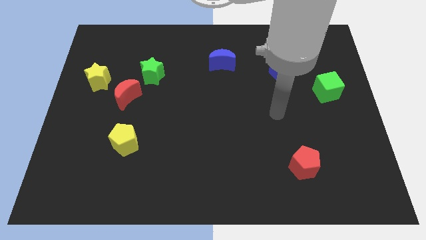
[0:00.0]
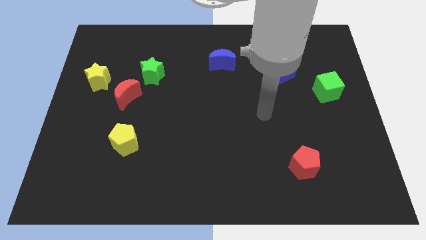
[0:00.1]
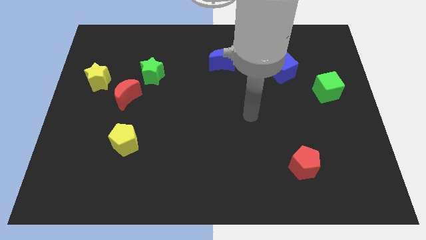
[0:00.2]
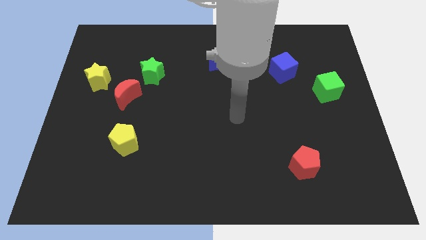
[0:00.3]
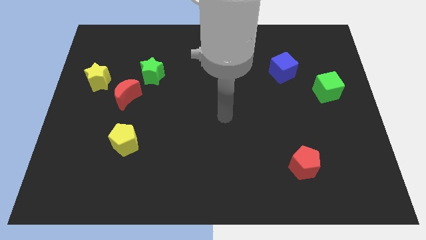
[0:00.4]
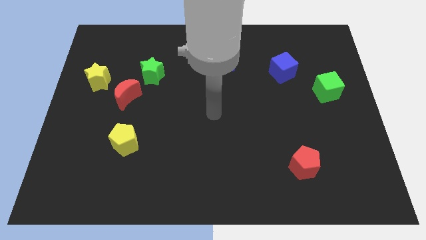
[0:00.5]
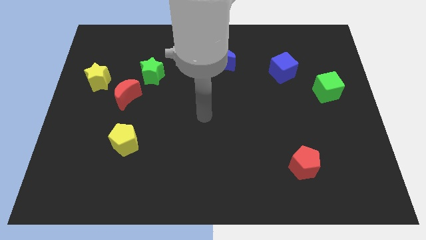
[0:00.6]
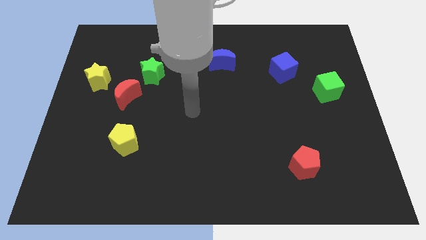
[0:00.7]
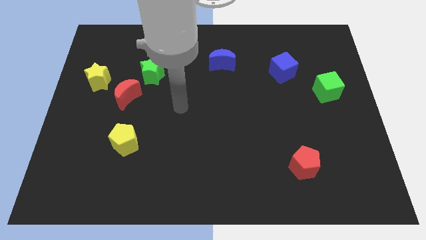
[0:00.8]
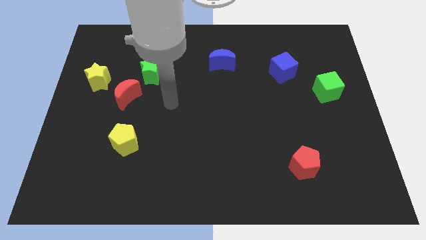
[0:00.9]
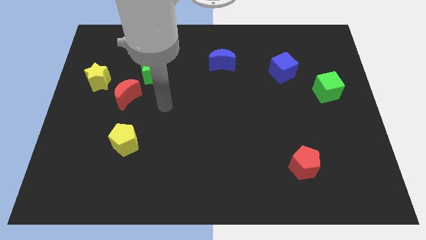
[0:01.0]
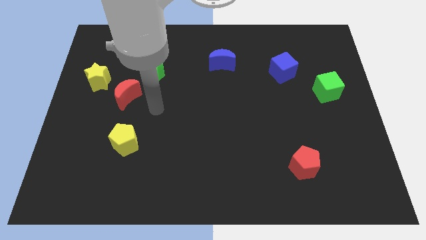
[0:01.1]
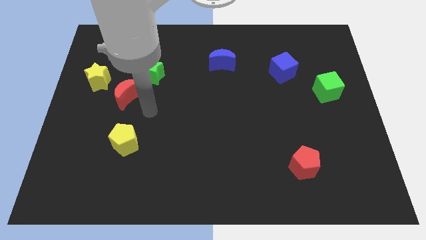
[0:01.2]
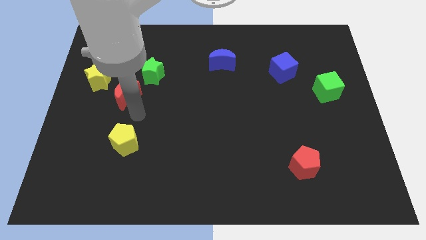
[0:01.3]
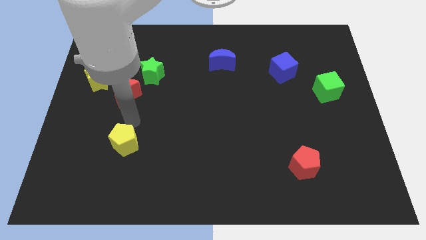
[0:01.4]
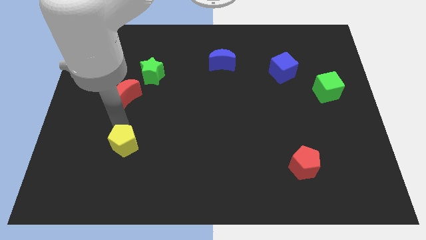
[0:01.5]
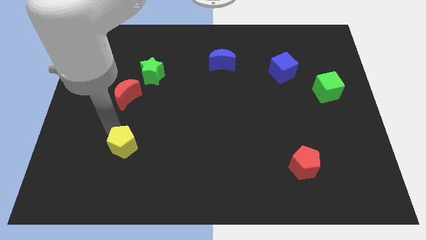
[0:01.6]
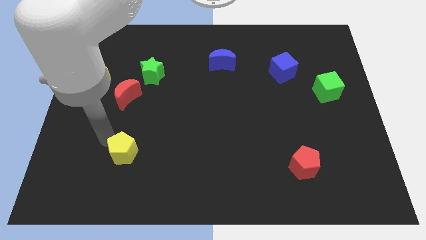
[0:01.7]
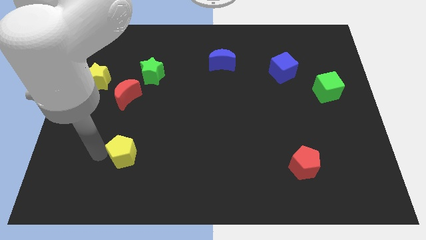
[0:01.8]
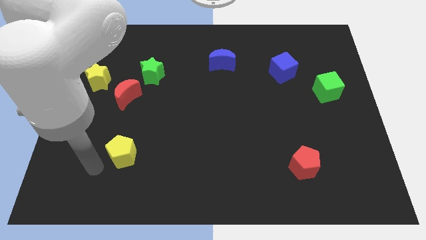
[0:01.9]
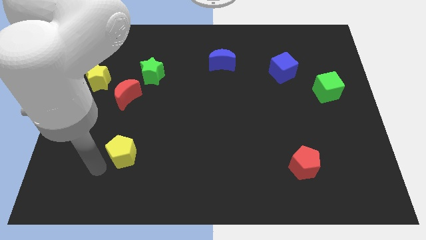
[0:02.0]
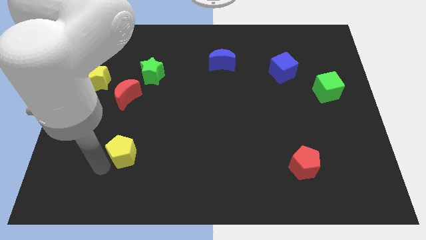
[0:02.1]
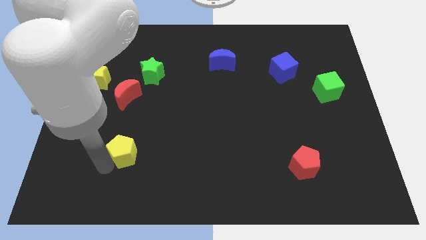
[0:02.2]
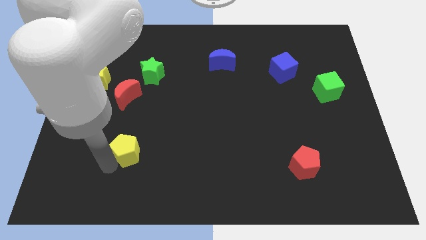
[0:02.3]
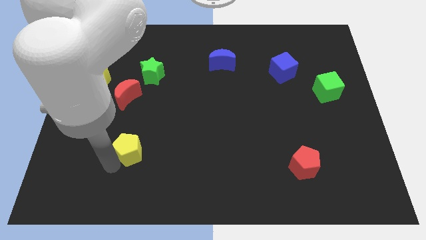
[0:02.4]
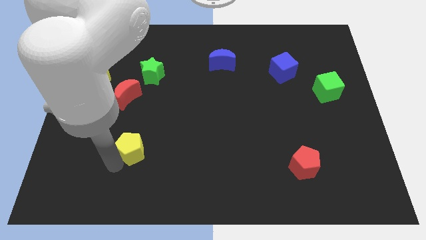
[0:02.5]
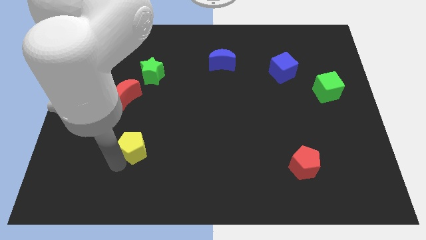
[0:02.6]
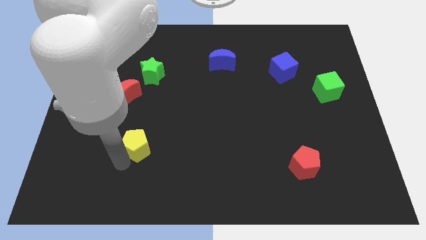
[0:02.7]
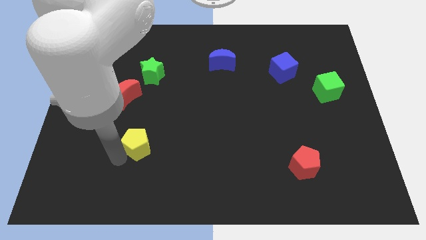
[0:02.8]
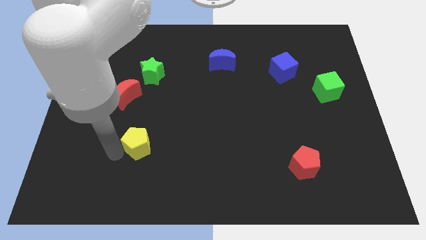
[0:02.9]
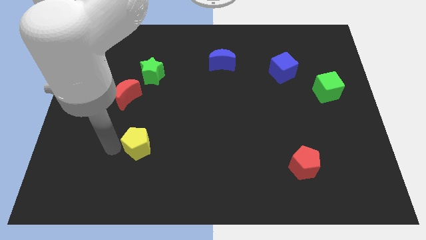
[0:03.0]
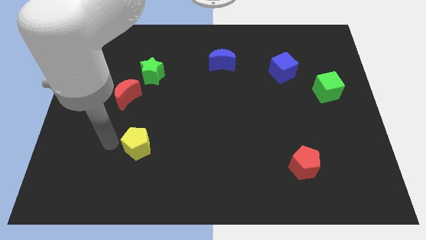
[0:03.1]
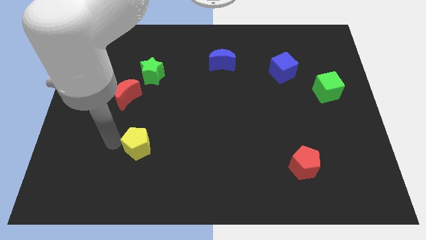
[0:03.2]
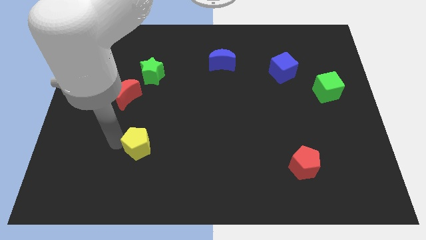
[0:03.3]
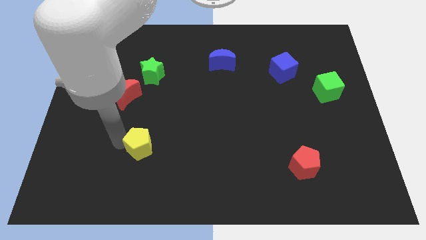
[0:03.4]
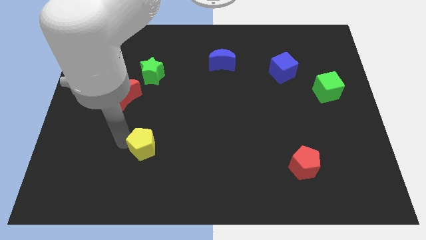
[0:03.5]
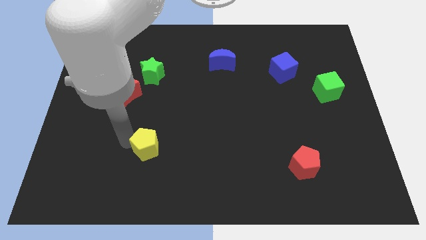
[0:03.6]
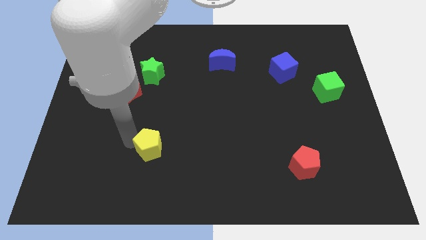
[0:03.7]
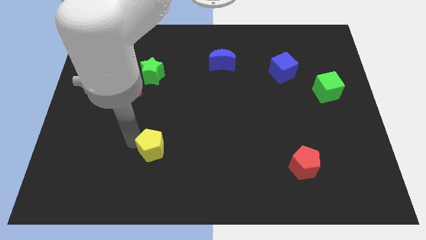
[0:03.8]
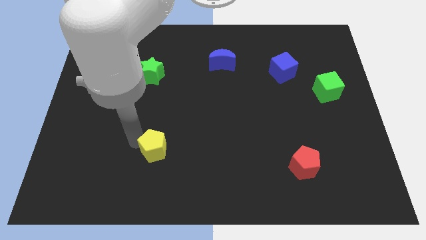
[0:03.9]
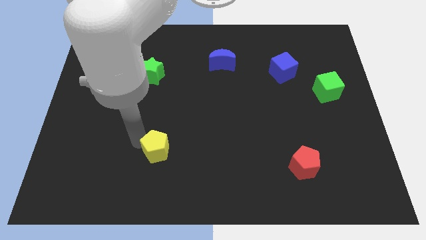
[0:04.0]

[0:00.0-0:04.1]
slightly move the yellow pentagon right

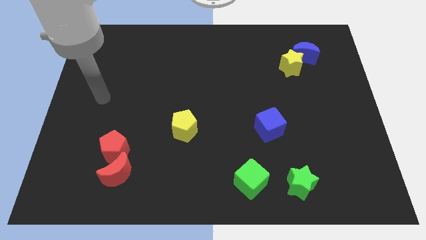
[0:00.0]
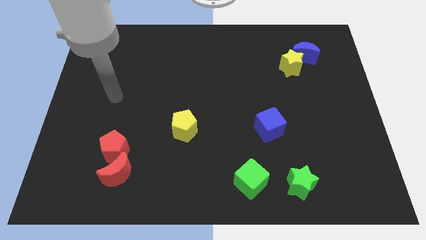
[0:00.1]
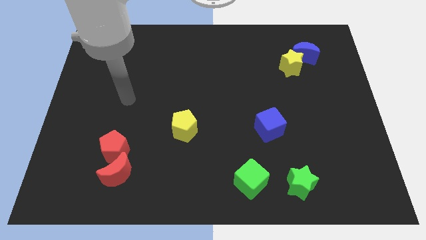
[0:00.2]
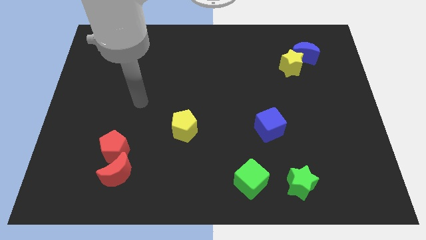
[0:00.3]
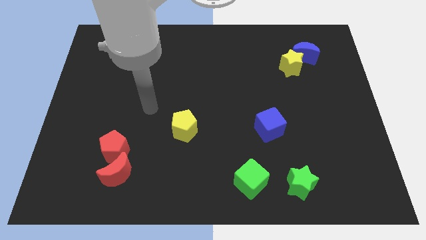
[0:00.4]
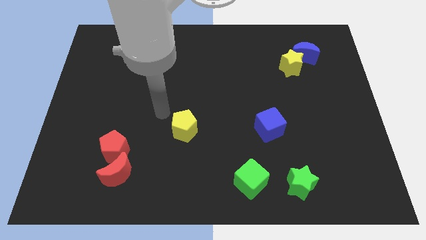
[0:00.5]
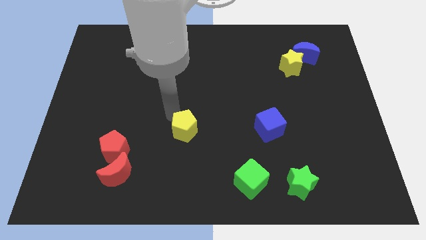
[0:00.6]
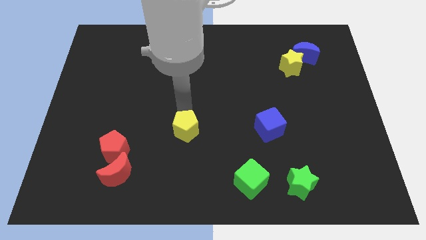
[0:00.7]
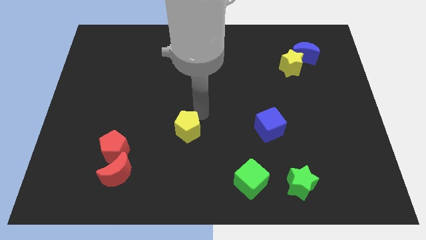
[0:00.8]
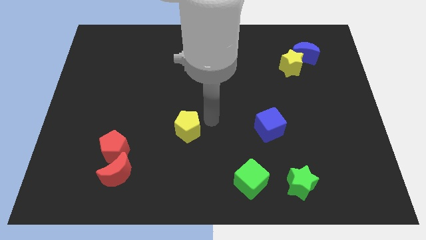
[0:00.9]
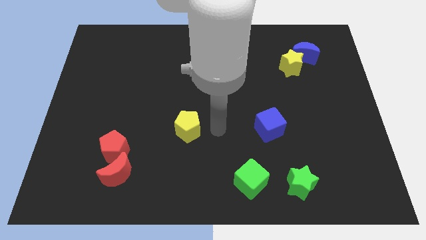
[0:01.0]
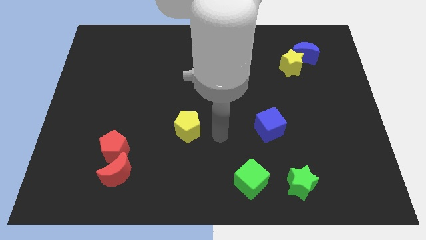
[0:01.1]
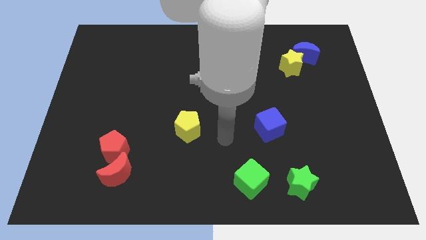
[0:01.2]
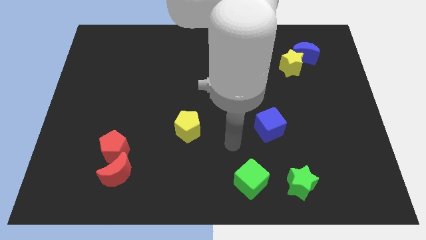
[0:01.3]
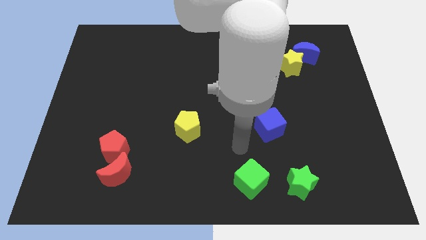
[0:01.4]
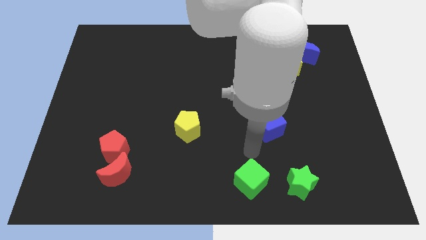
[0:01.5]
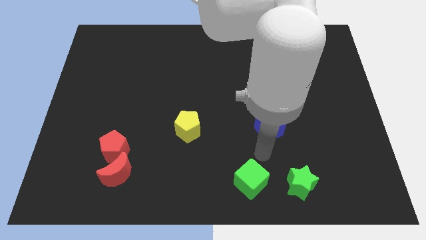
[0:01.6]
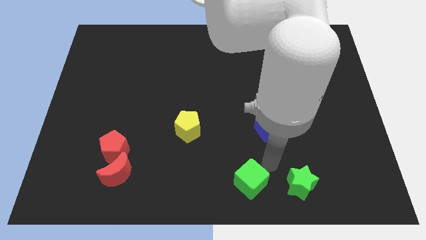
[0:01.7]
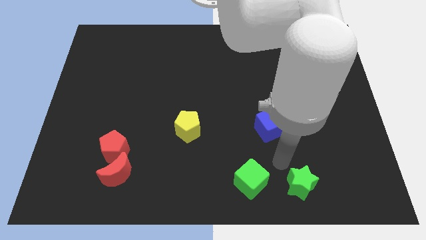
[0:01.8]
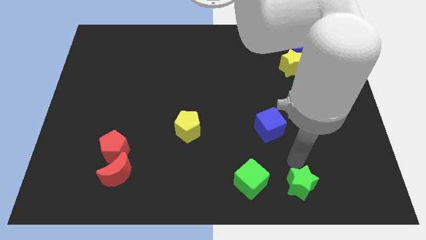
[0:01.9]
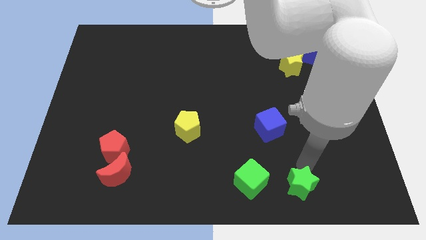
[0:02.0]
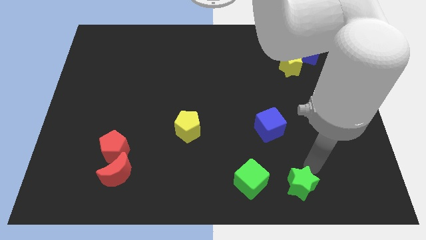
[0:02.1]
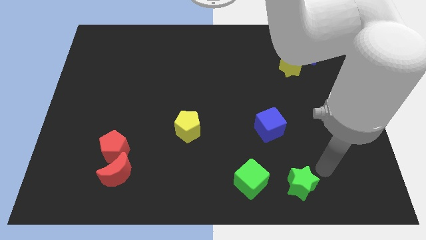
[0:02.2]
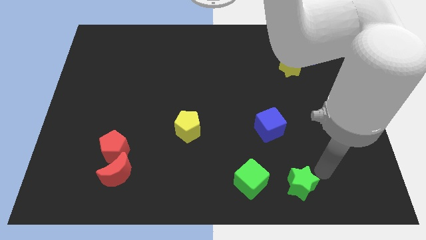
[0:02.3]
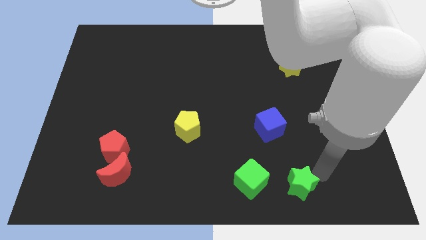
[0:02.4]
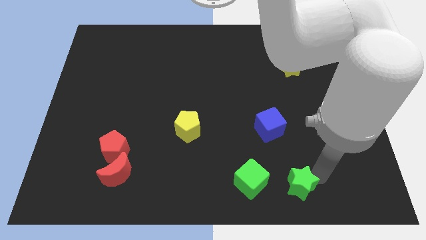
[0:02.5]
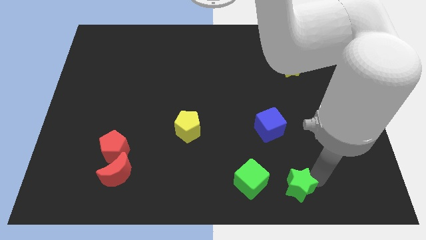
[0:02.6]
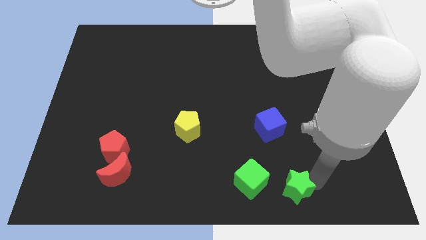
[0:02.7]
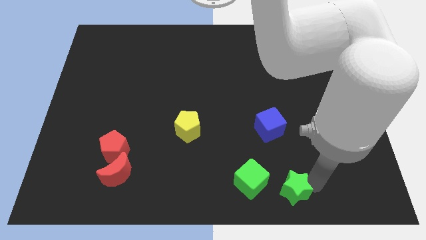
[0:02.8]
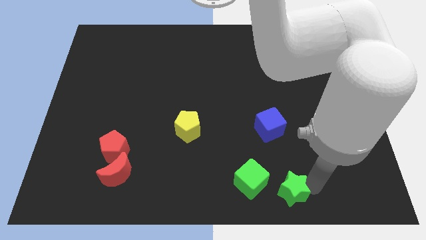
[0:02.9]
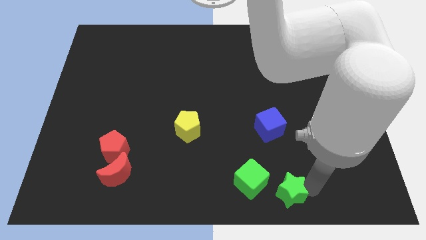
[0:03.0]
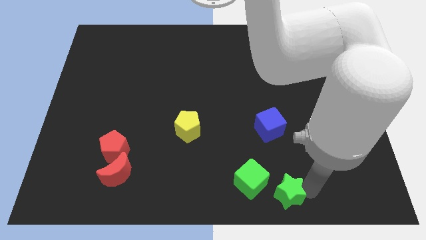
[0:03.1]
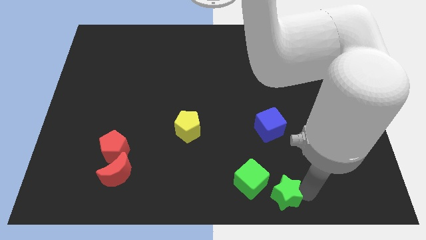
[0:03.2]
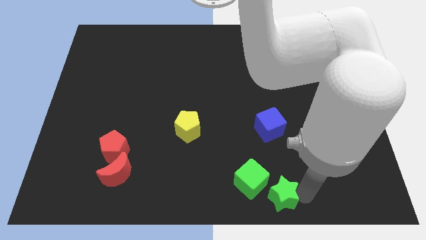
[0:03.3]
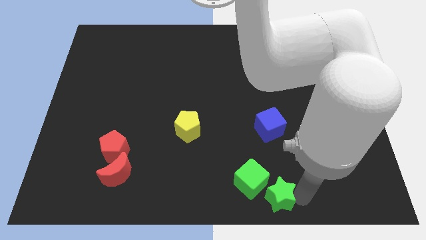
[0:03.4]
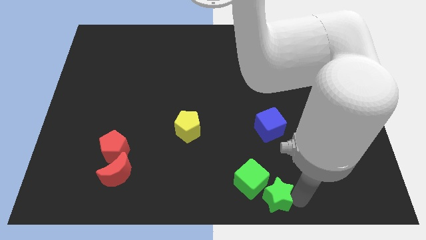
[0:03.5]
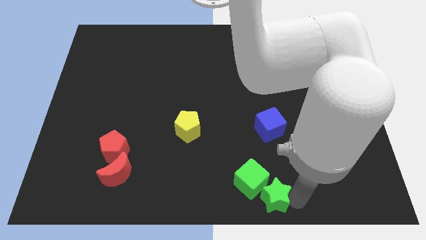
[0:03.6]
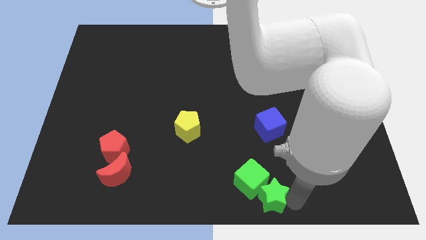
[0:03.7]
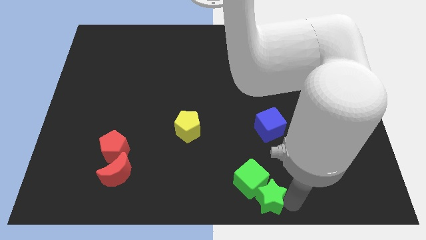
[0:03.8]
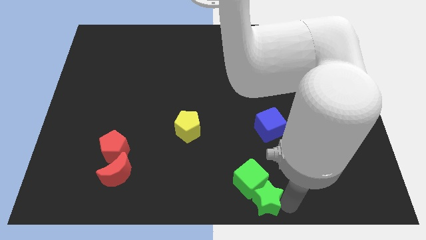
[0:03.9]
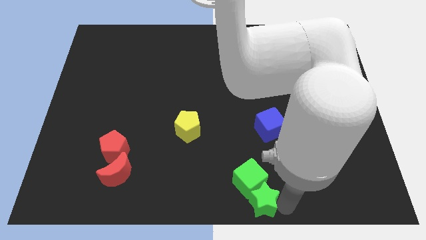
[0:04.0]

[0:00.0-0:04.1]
slightly move the green star left
